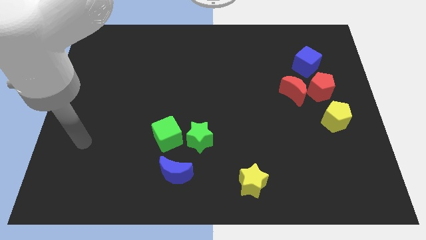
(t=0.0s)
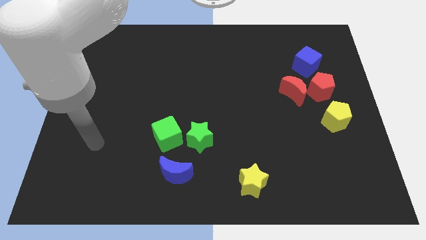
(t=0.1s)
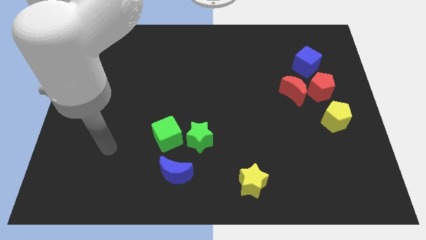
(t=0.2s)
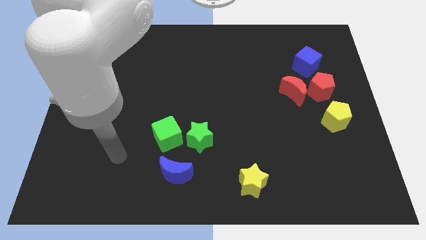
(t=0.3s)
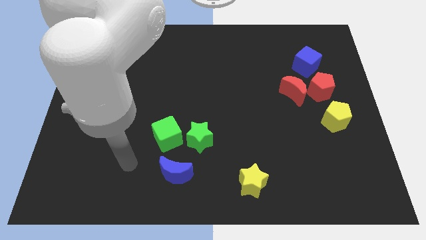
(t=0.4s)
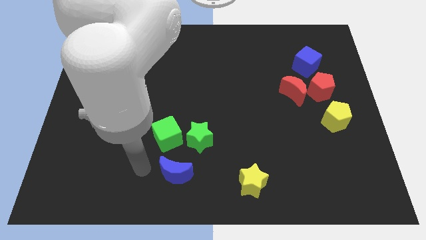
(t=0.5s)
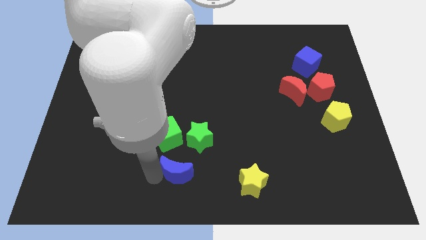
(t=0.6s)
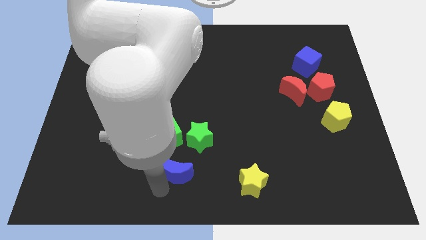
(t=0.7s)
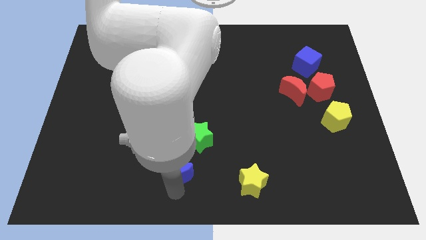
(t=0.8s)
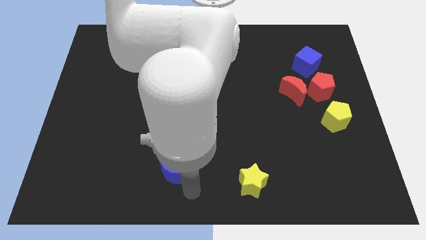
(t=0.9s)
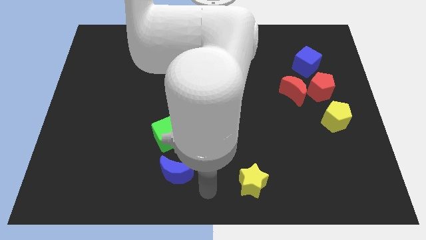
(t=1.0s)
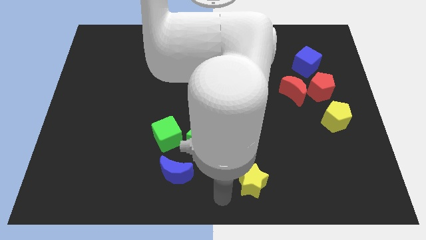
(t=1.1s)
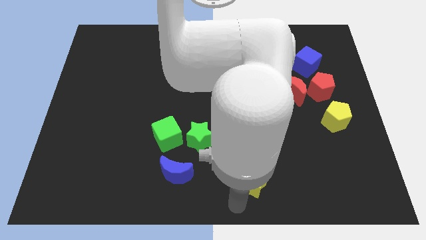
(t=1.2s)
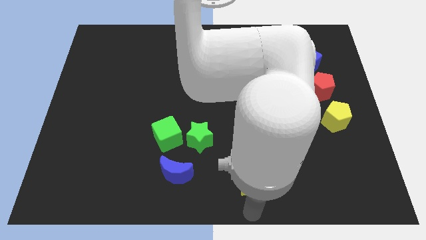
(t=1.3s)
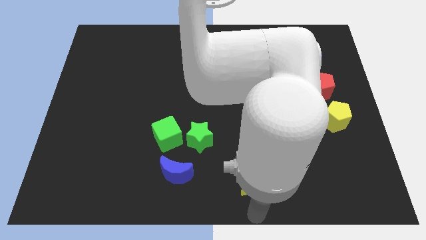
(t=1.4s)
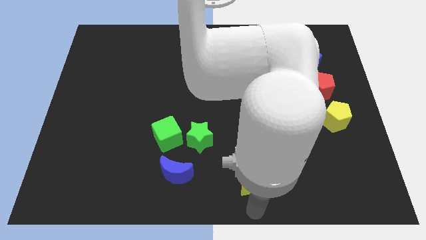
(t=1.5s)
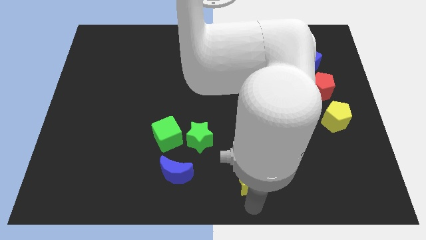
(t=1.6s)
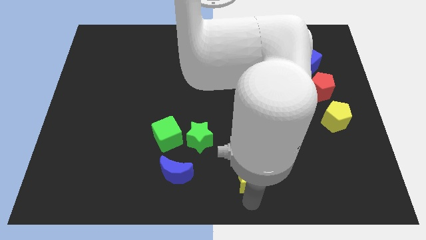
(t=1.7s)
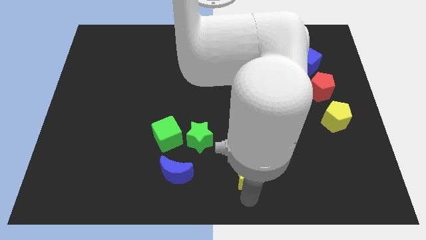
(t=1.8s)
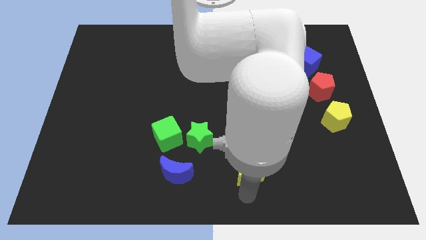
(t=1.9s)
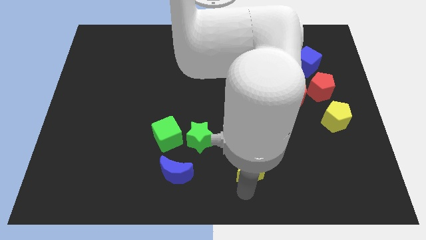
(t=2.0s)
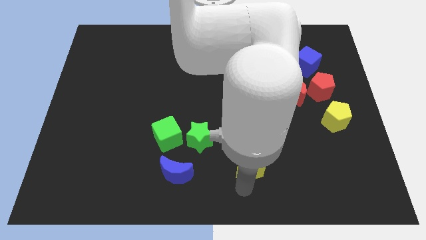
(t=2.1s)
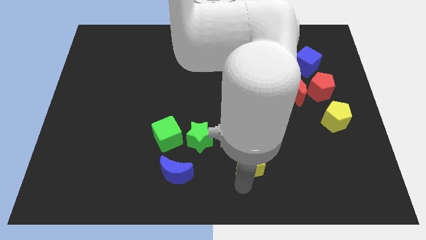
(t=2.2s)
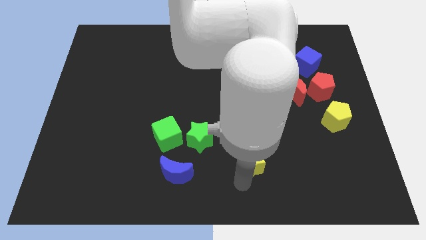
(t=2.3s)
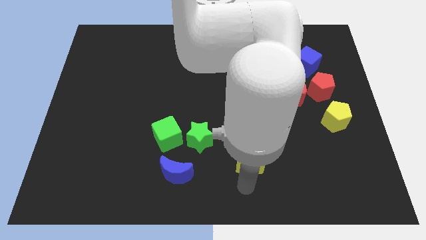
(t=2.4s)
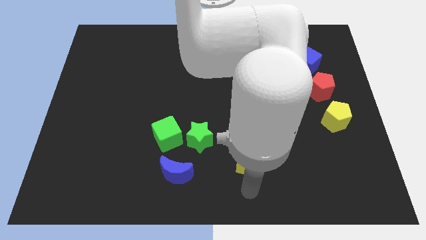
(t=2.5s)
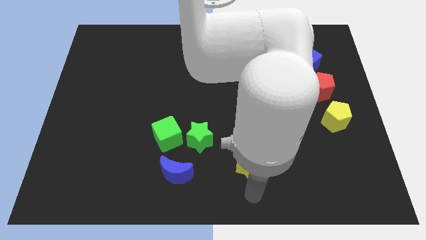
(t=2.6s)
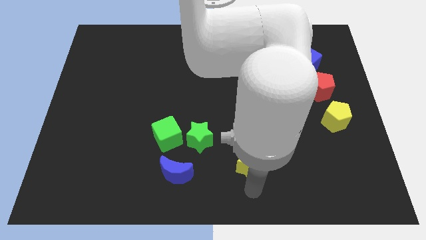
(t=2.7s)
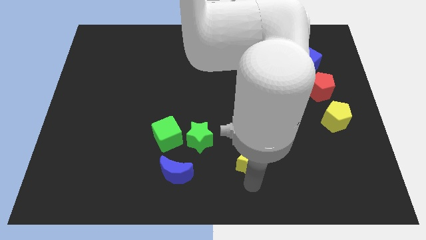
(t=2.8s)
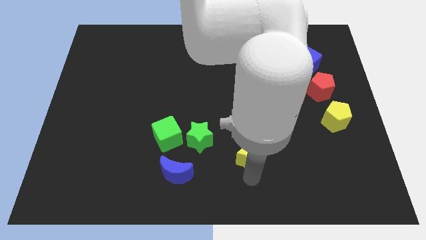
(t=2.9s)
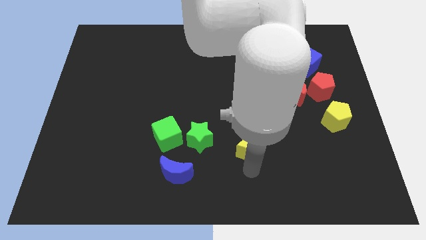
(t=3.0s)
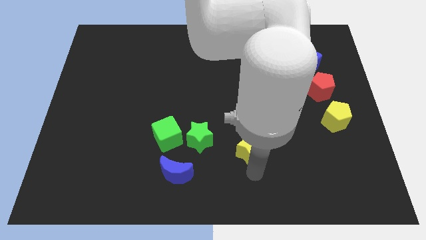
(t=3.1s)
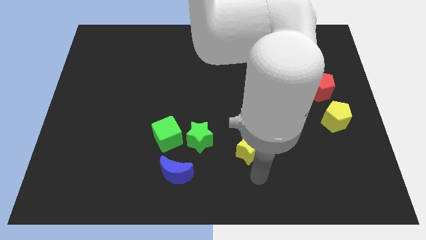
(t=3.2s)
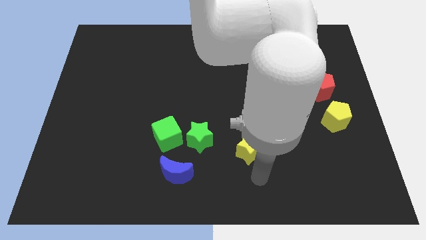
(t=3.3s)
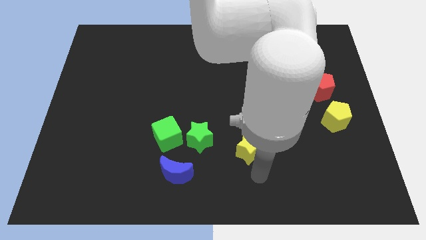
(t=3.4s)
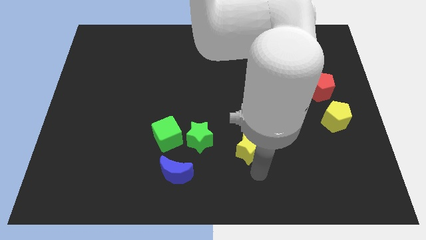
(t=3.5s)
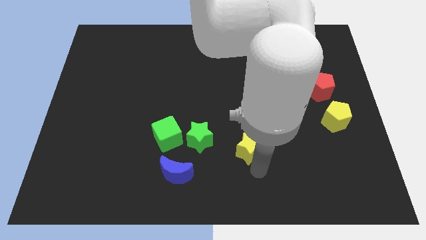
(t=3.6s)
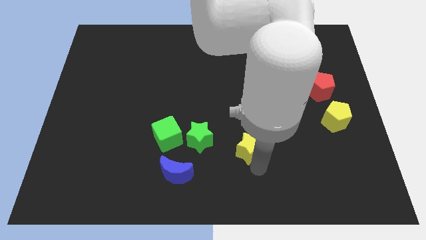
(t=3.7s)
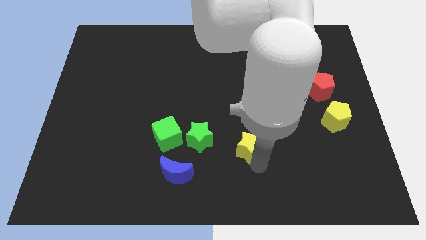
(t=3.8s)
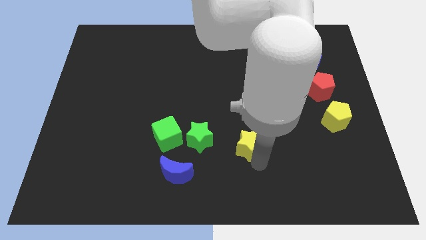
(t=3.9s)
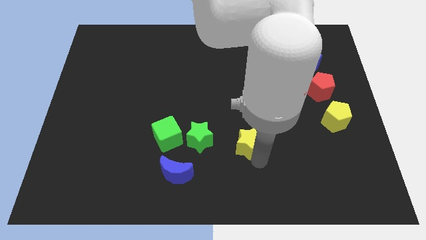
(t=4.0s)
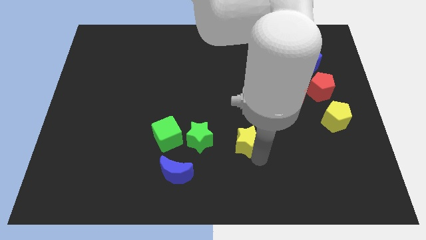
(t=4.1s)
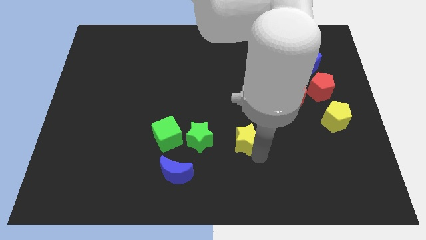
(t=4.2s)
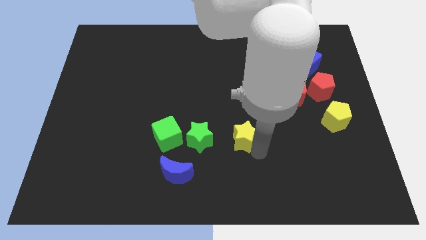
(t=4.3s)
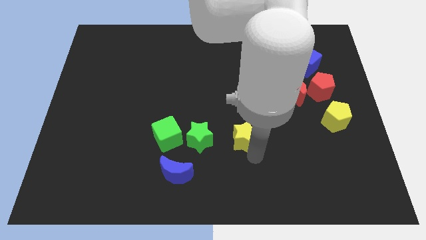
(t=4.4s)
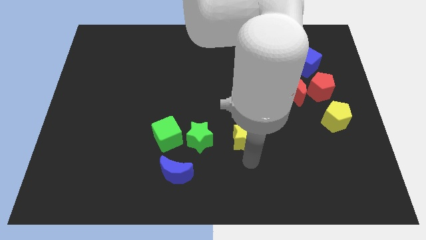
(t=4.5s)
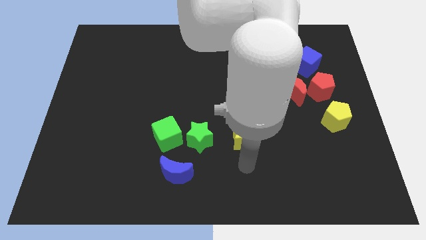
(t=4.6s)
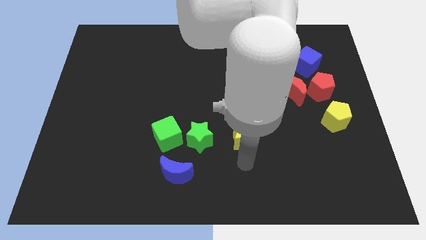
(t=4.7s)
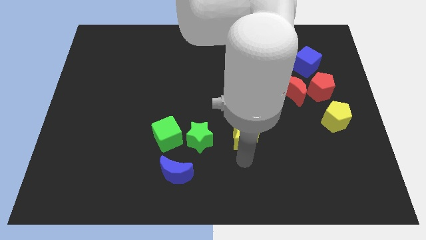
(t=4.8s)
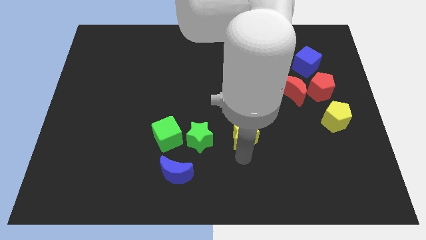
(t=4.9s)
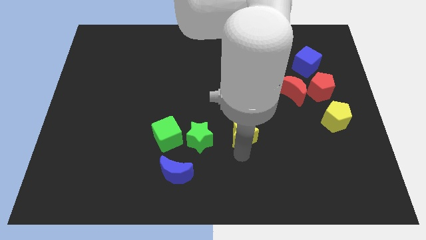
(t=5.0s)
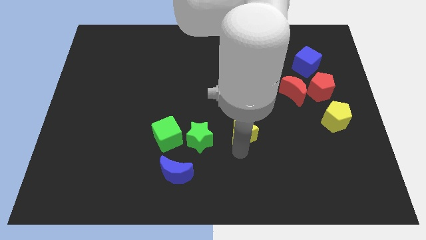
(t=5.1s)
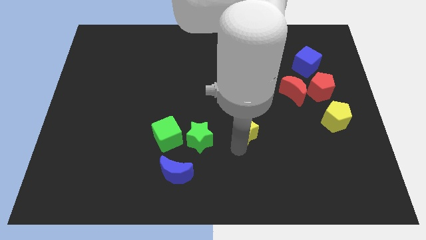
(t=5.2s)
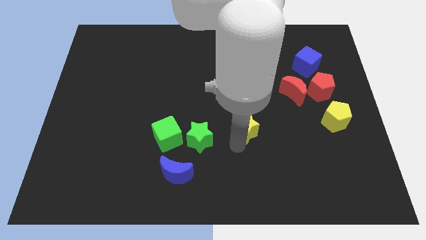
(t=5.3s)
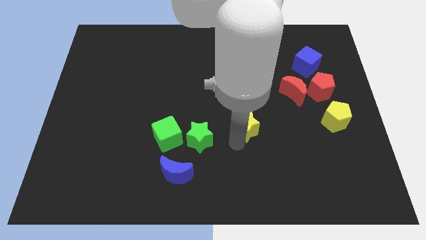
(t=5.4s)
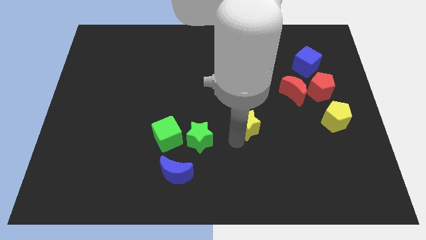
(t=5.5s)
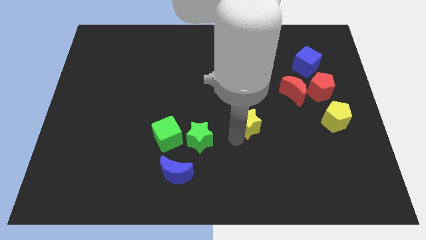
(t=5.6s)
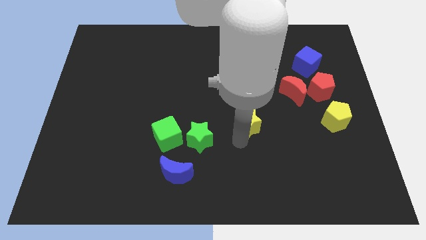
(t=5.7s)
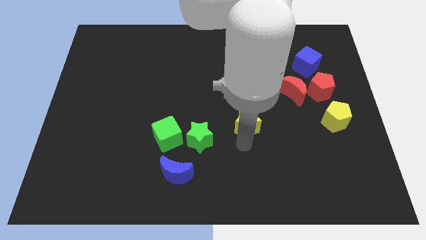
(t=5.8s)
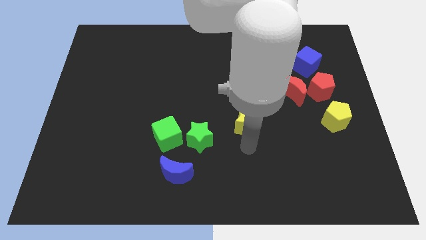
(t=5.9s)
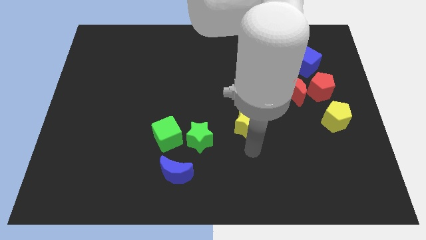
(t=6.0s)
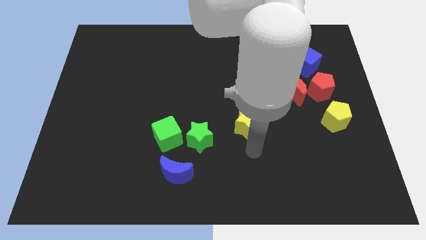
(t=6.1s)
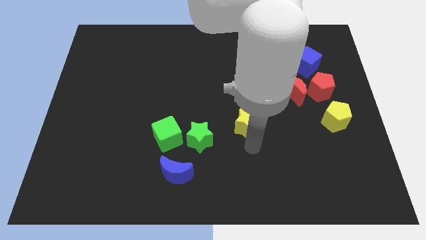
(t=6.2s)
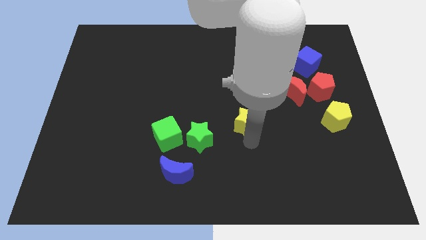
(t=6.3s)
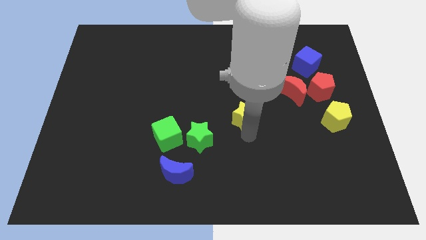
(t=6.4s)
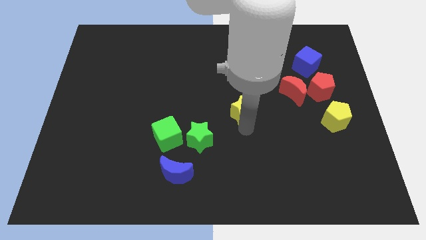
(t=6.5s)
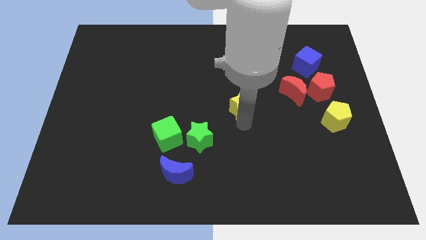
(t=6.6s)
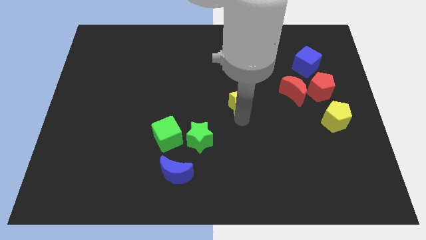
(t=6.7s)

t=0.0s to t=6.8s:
push the yellow star upwards

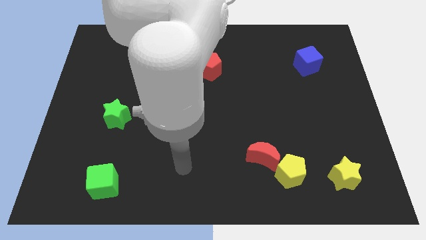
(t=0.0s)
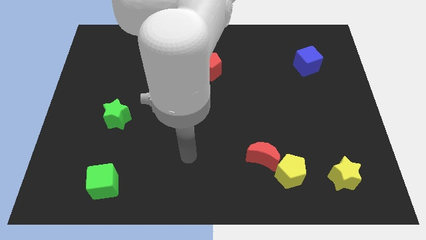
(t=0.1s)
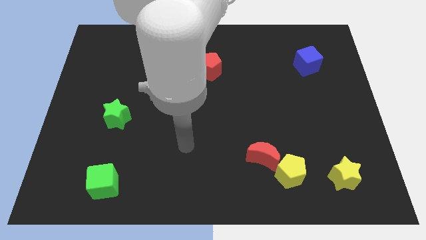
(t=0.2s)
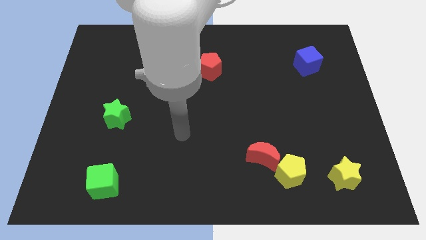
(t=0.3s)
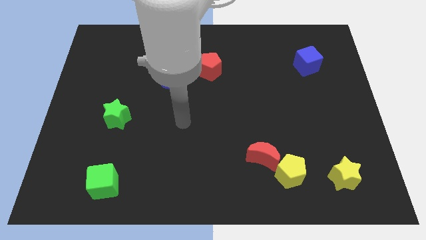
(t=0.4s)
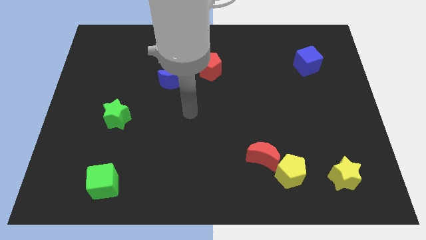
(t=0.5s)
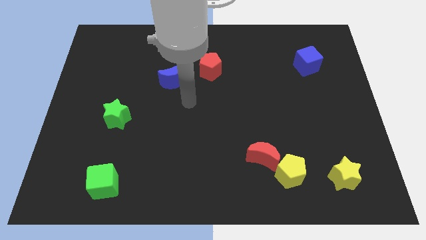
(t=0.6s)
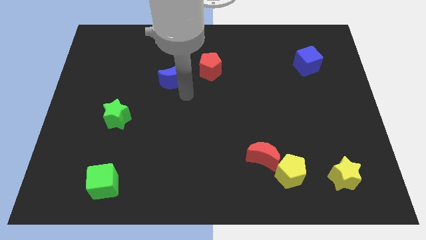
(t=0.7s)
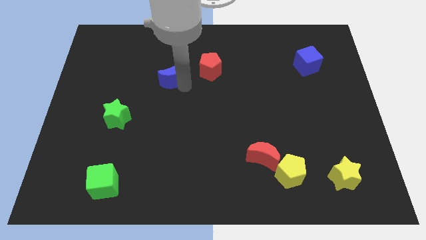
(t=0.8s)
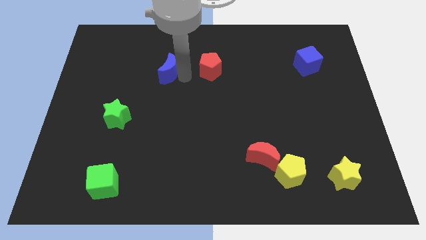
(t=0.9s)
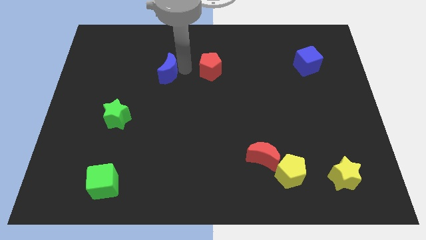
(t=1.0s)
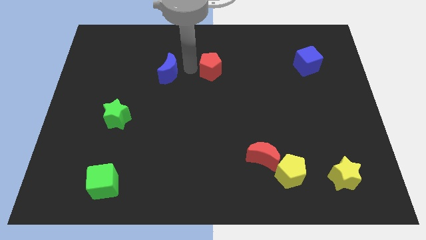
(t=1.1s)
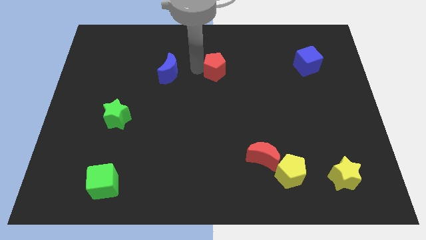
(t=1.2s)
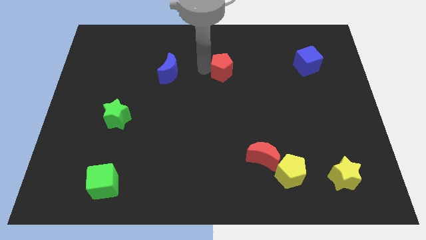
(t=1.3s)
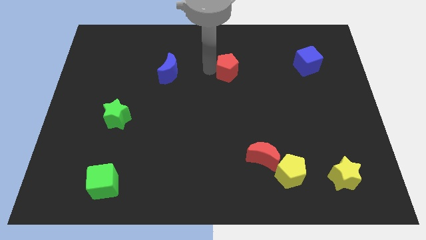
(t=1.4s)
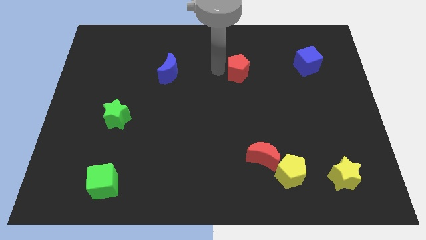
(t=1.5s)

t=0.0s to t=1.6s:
slide the red pentagon somewhat right
